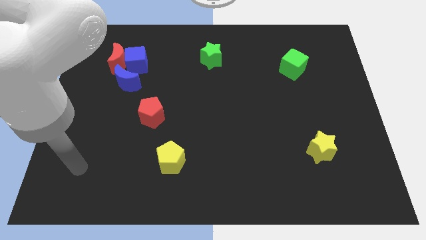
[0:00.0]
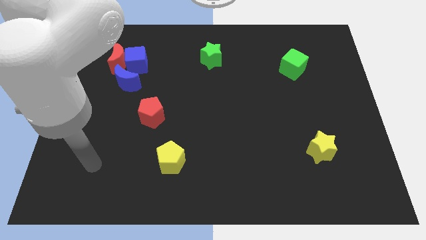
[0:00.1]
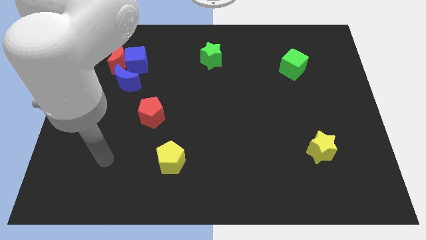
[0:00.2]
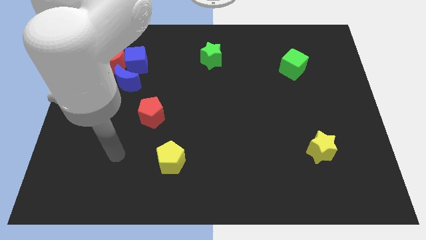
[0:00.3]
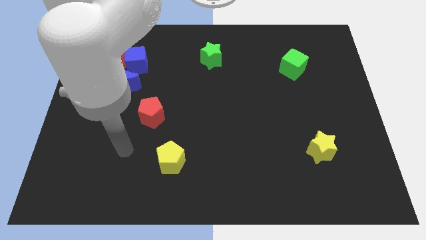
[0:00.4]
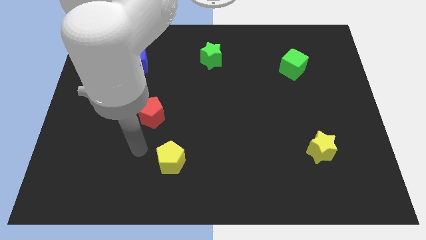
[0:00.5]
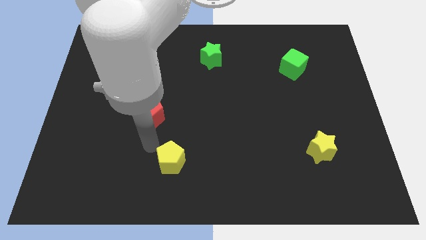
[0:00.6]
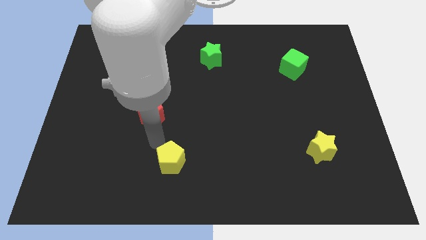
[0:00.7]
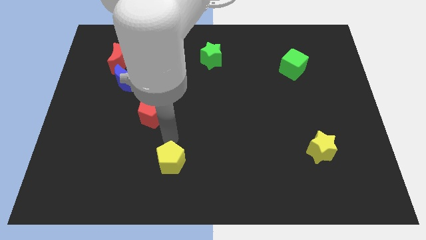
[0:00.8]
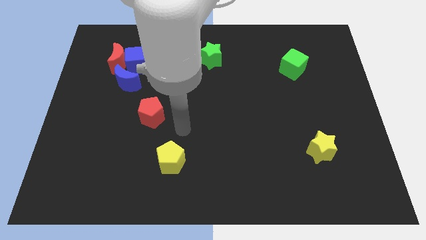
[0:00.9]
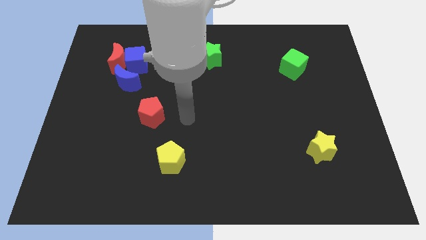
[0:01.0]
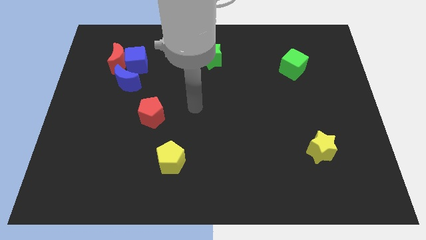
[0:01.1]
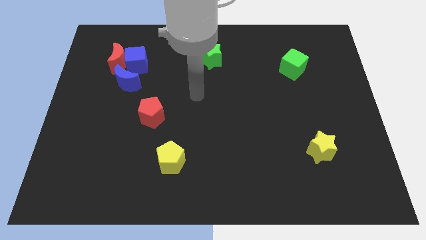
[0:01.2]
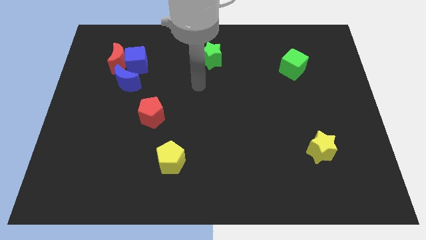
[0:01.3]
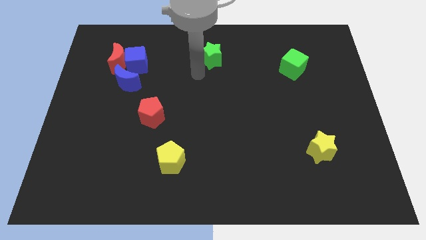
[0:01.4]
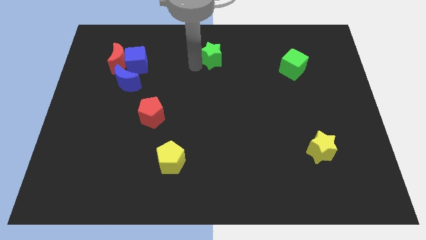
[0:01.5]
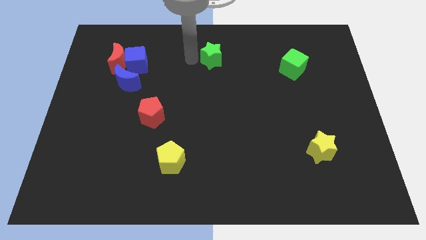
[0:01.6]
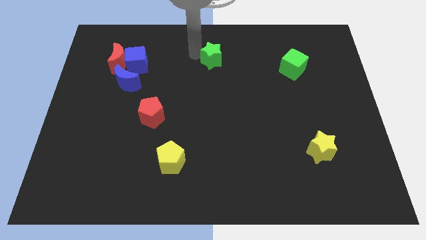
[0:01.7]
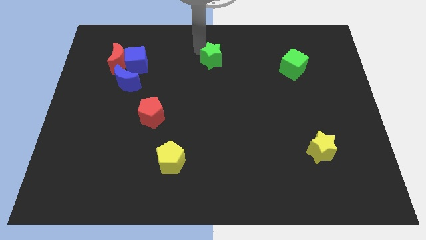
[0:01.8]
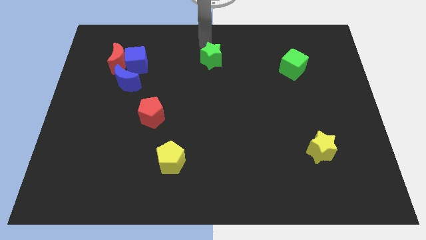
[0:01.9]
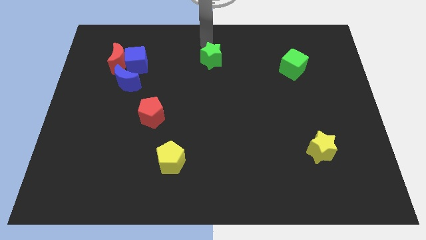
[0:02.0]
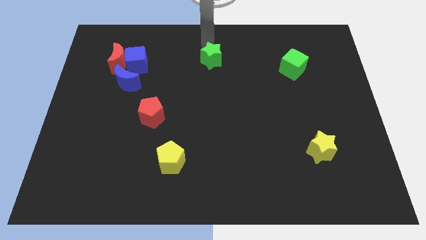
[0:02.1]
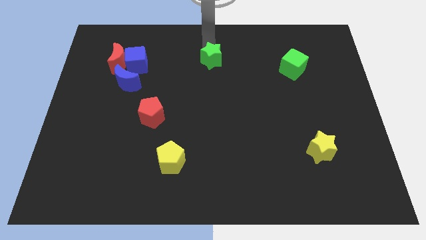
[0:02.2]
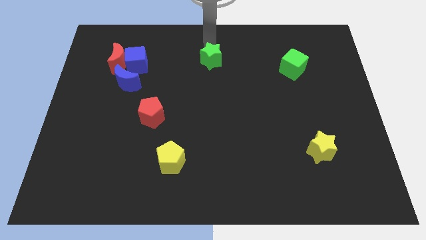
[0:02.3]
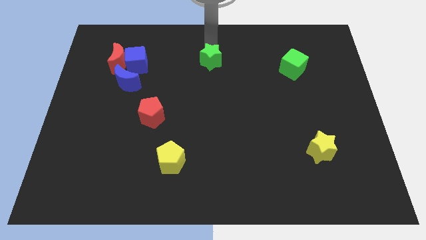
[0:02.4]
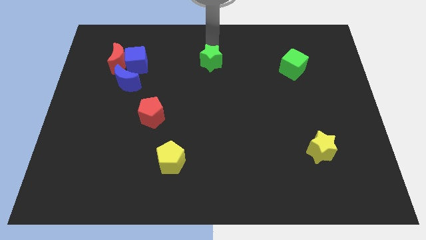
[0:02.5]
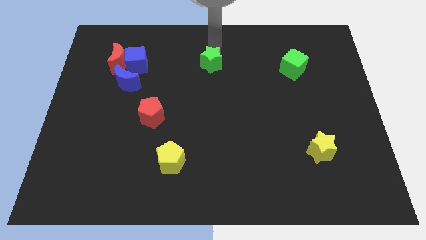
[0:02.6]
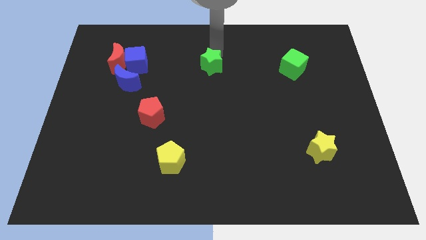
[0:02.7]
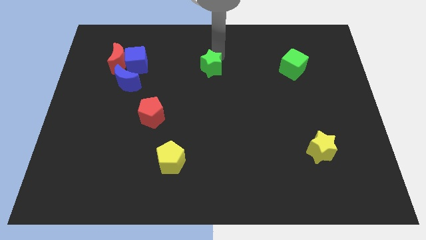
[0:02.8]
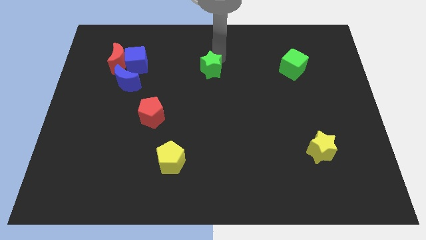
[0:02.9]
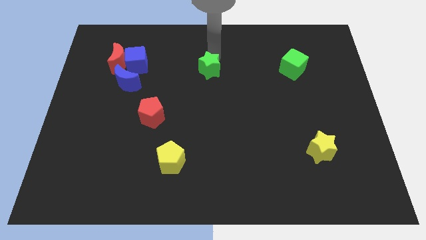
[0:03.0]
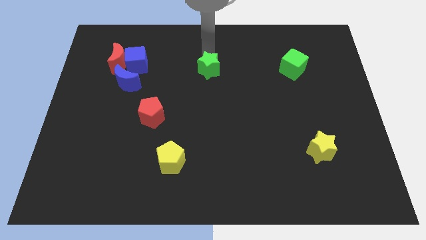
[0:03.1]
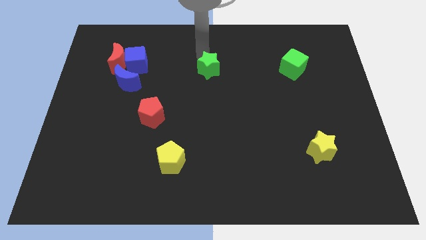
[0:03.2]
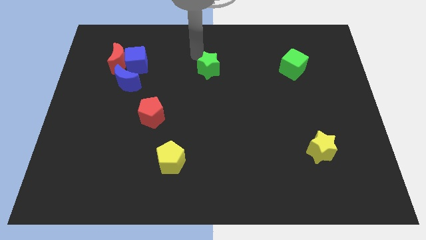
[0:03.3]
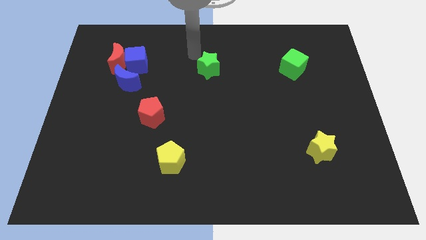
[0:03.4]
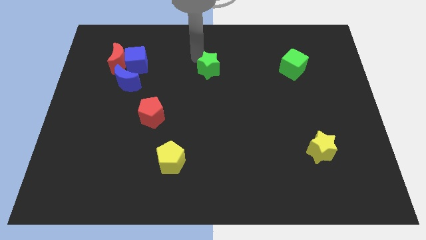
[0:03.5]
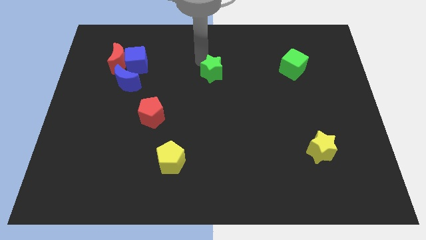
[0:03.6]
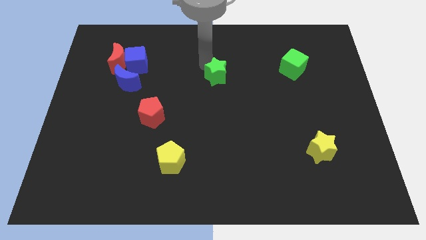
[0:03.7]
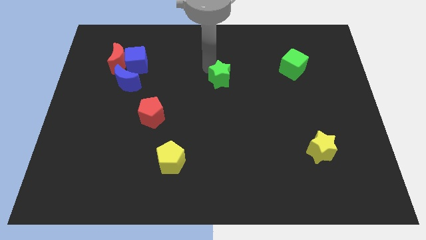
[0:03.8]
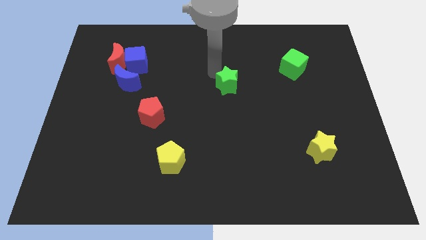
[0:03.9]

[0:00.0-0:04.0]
move the green star a bit down and then right

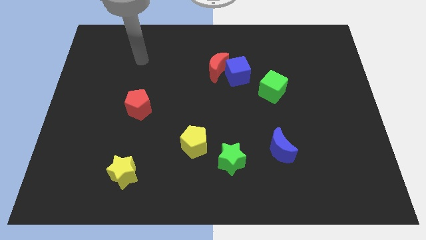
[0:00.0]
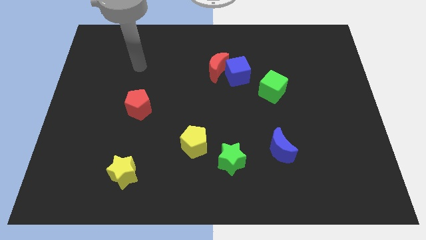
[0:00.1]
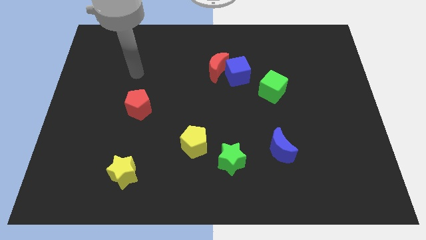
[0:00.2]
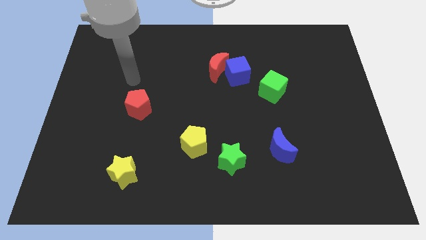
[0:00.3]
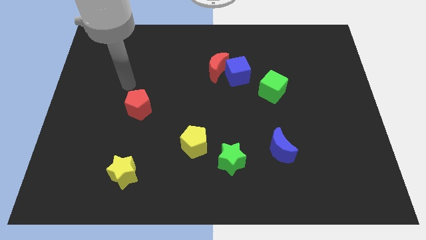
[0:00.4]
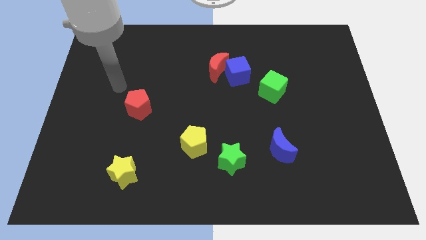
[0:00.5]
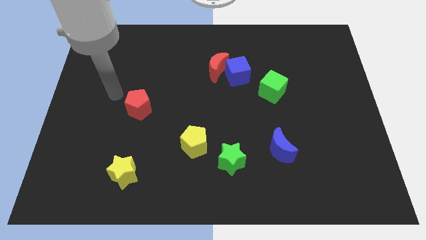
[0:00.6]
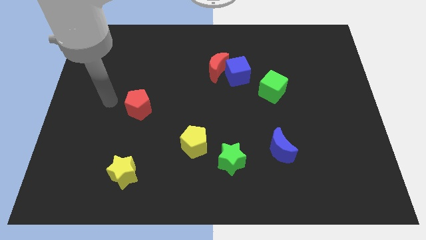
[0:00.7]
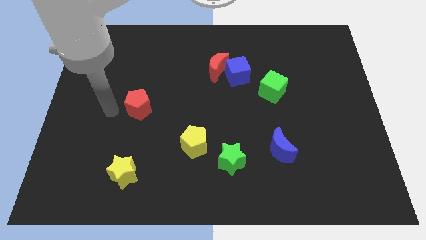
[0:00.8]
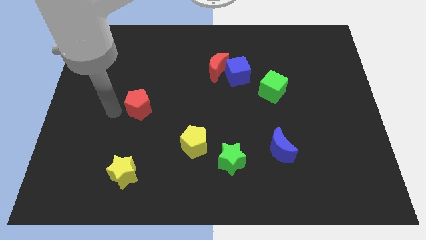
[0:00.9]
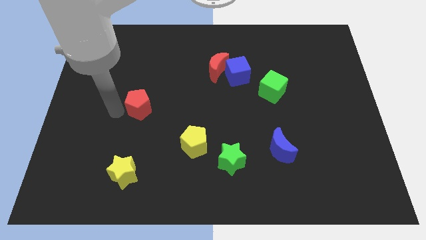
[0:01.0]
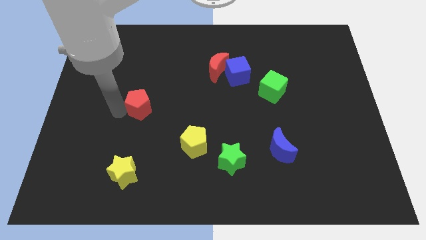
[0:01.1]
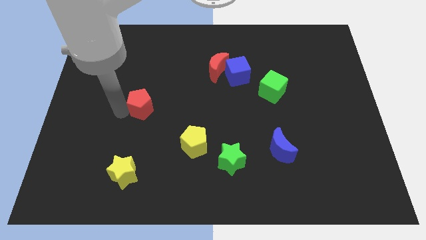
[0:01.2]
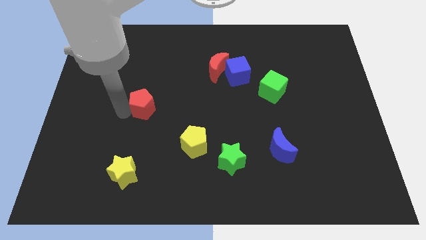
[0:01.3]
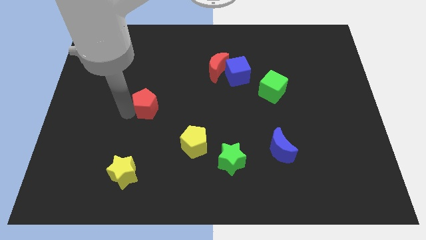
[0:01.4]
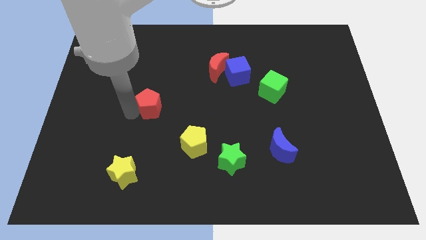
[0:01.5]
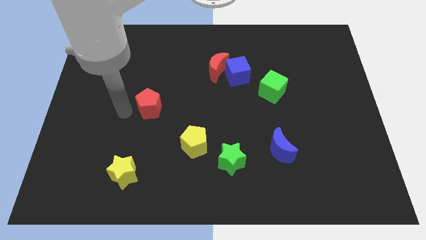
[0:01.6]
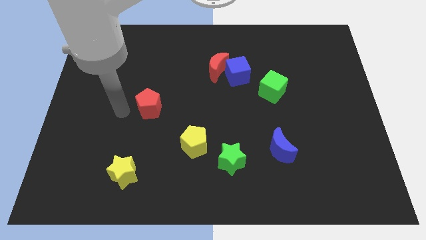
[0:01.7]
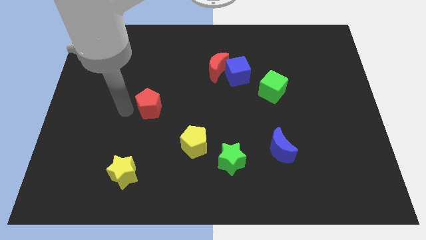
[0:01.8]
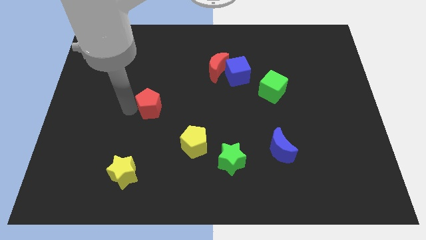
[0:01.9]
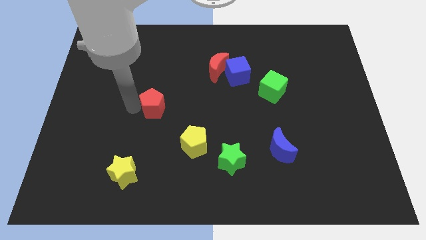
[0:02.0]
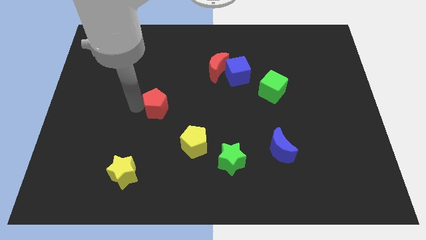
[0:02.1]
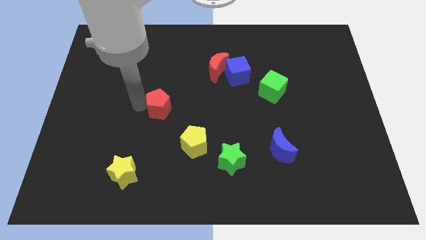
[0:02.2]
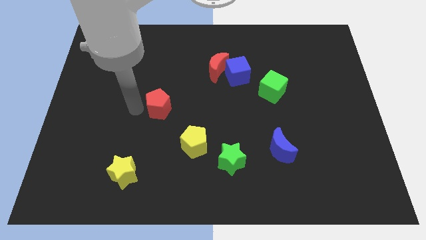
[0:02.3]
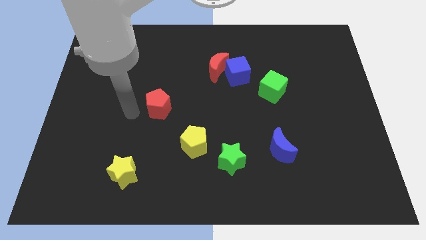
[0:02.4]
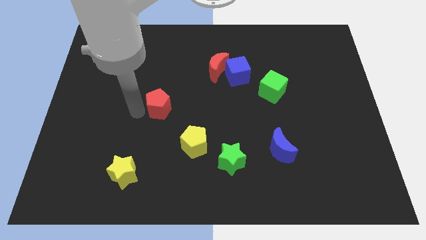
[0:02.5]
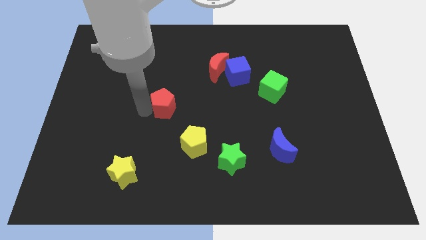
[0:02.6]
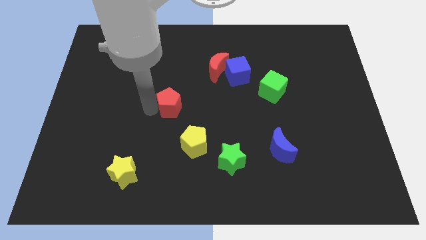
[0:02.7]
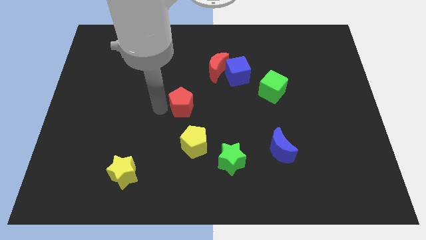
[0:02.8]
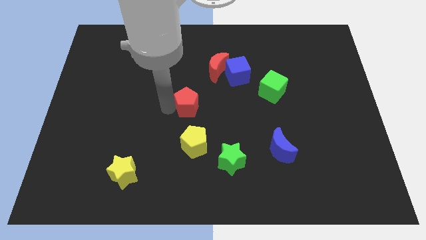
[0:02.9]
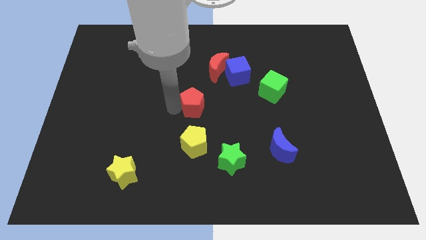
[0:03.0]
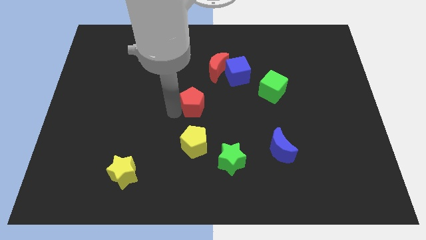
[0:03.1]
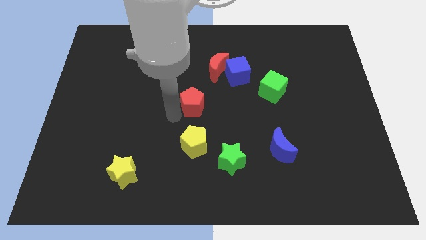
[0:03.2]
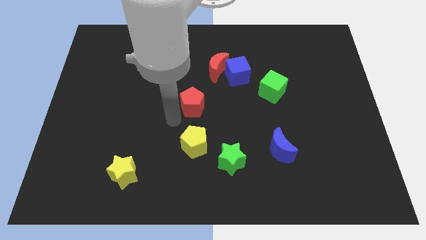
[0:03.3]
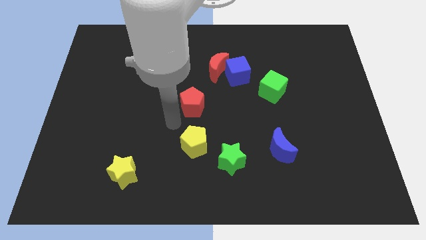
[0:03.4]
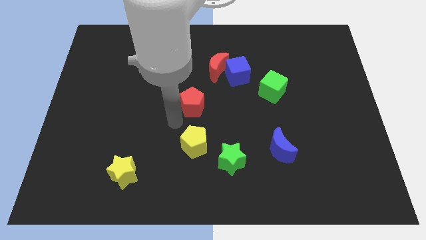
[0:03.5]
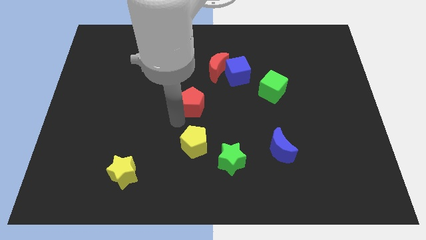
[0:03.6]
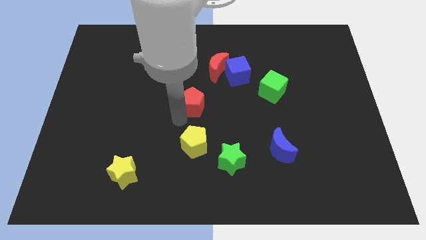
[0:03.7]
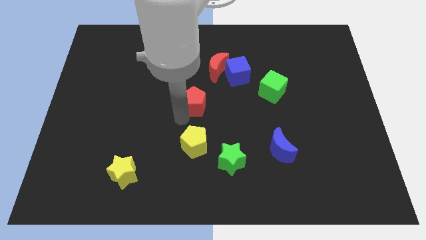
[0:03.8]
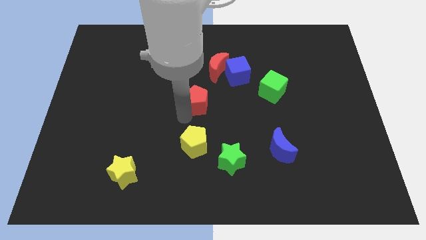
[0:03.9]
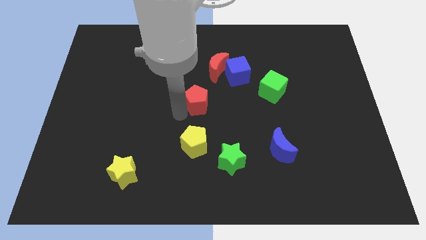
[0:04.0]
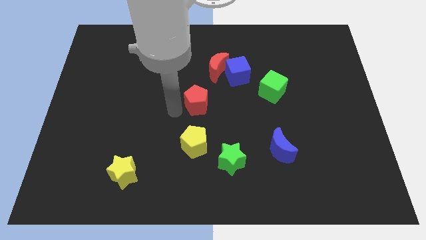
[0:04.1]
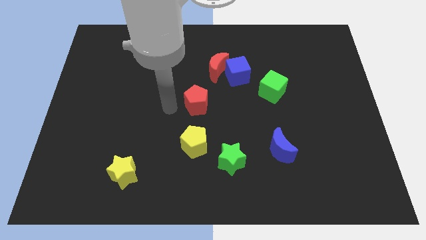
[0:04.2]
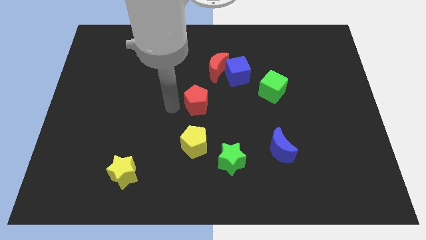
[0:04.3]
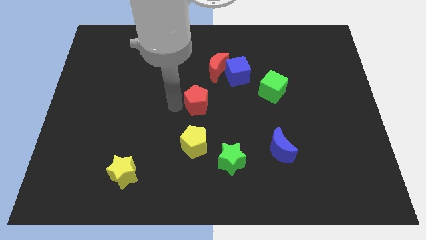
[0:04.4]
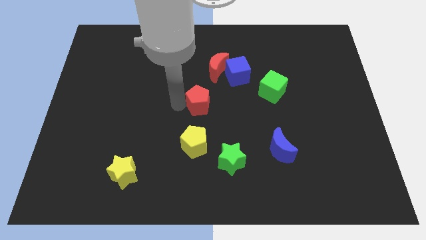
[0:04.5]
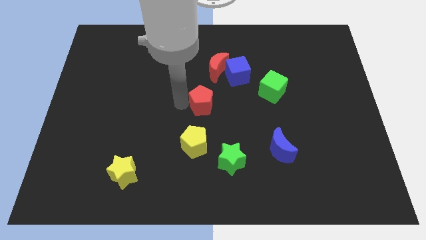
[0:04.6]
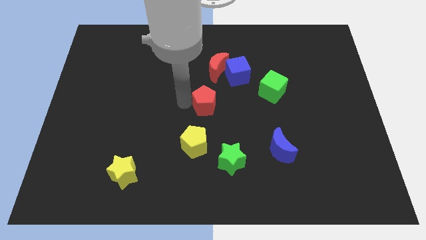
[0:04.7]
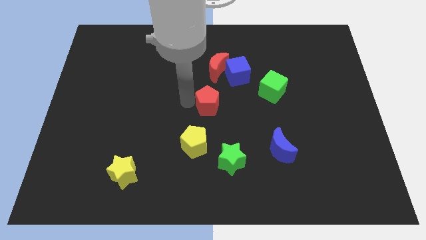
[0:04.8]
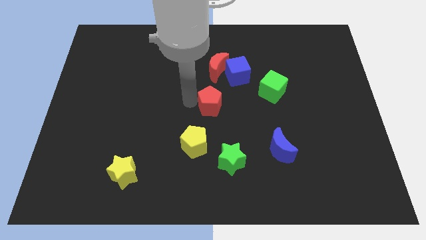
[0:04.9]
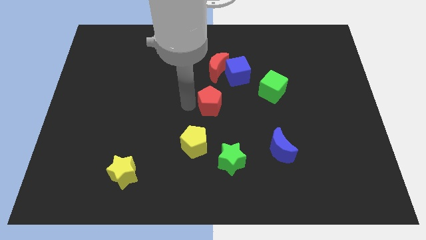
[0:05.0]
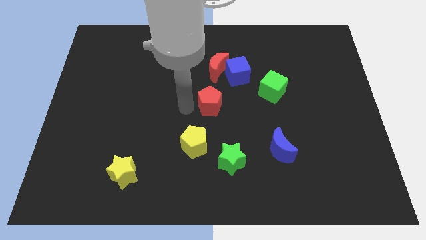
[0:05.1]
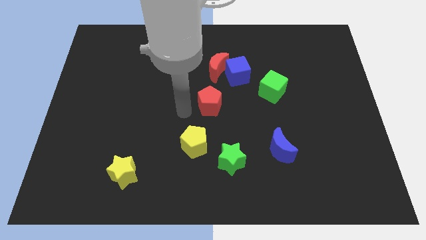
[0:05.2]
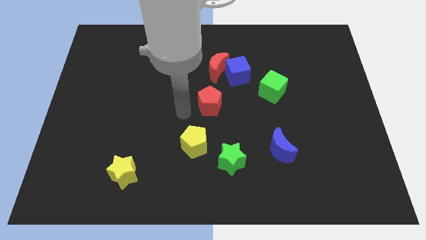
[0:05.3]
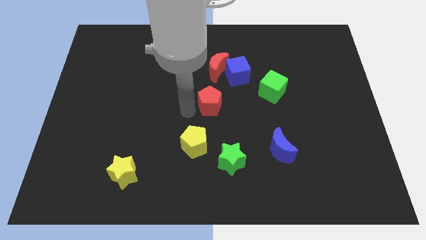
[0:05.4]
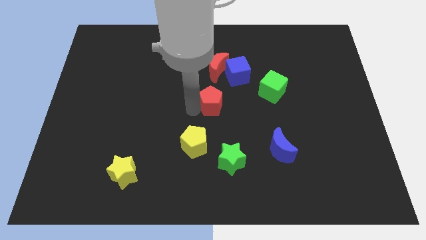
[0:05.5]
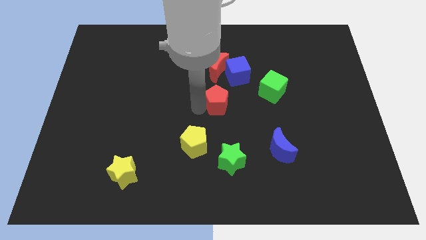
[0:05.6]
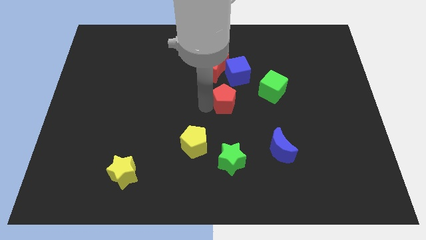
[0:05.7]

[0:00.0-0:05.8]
slide the red pentagon to the right
